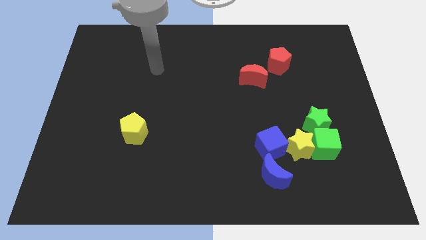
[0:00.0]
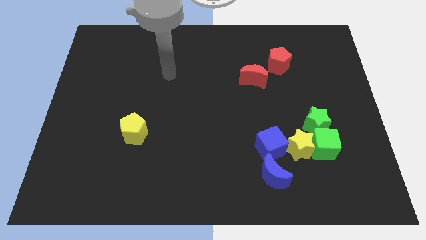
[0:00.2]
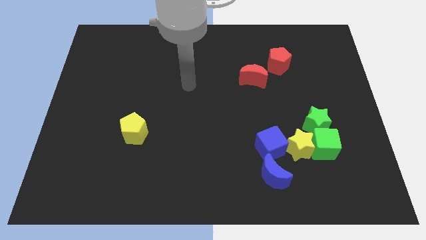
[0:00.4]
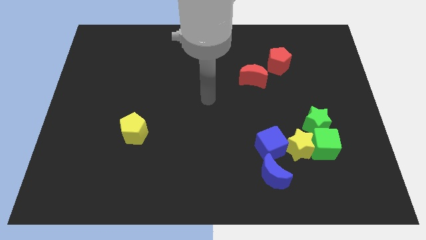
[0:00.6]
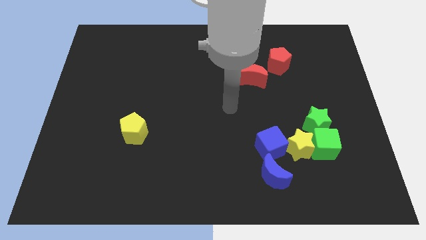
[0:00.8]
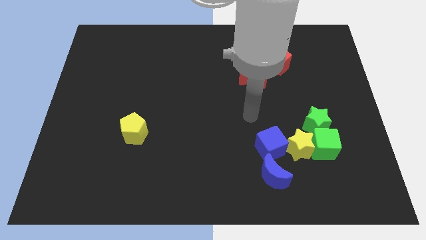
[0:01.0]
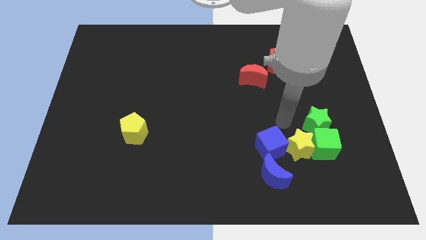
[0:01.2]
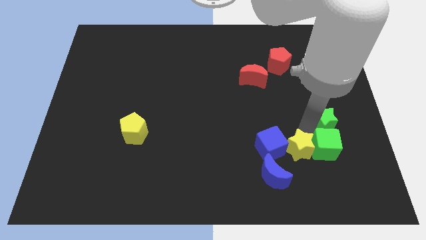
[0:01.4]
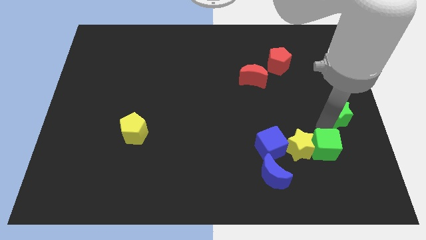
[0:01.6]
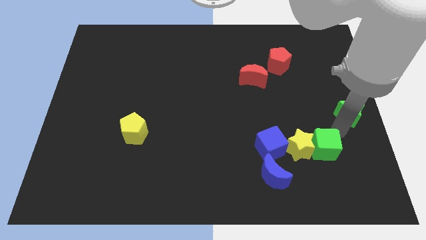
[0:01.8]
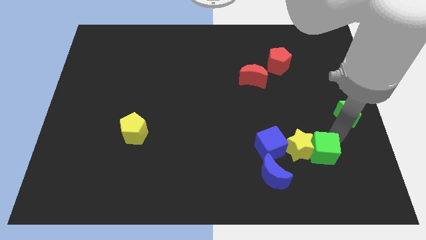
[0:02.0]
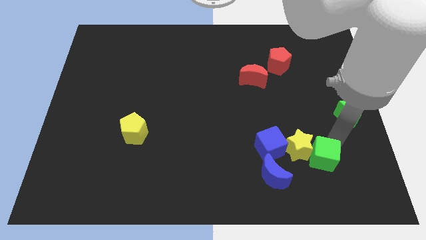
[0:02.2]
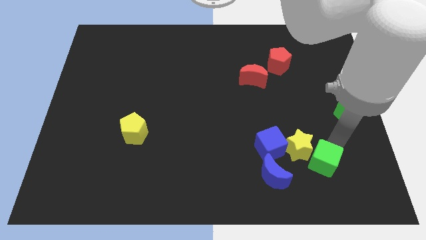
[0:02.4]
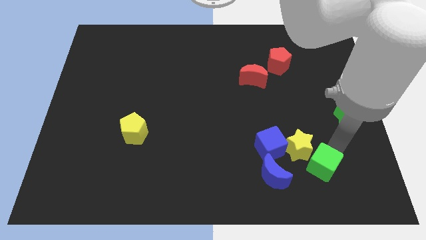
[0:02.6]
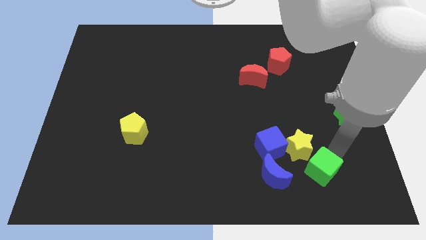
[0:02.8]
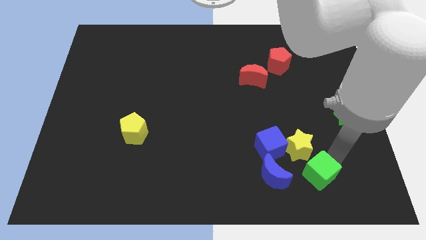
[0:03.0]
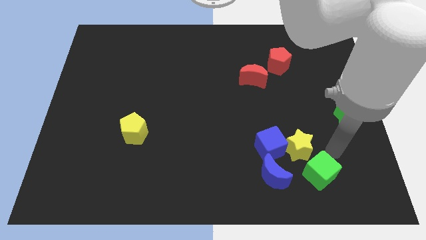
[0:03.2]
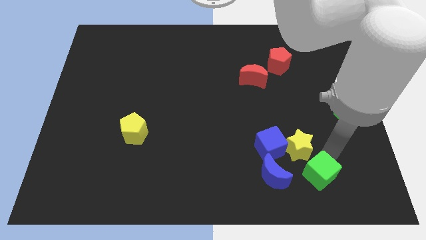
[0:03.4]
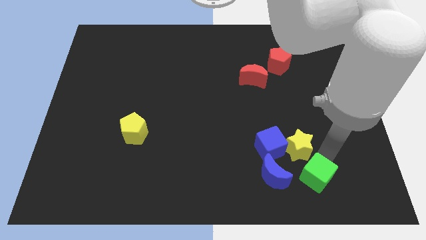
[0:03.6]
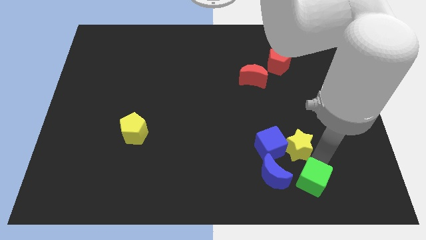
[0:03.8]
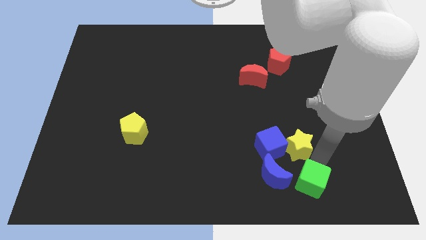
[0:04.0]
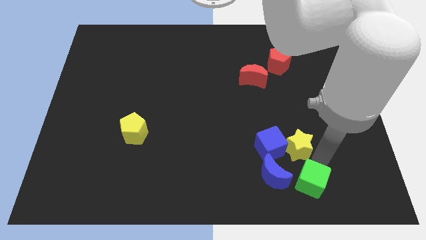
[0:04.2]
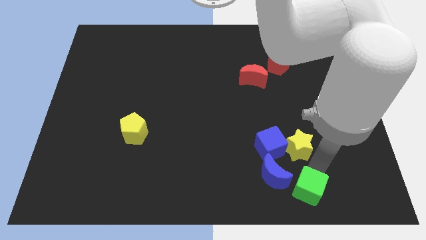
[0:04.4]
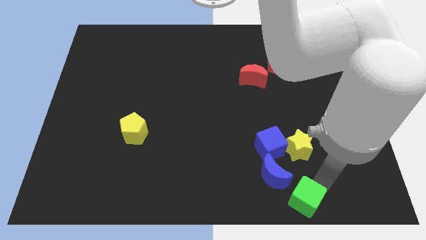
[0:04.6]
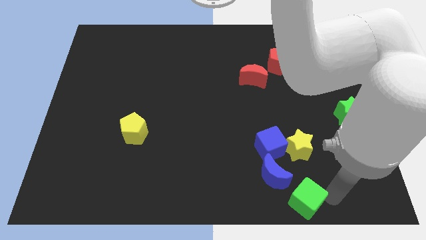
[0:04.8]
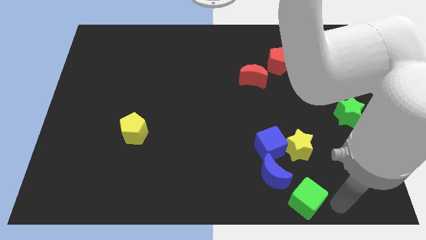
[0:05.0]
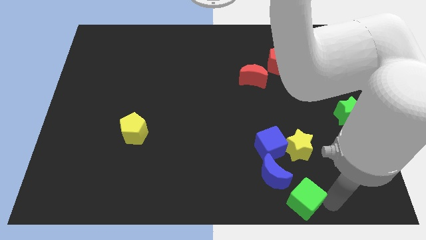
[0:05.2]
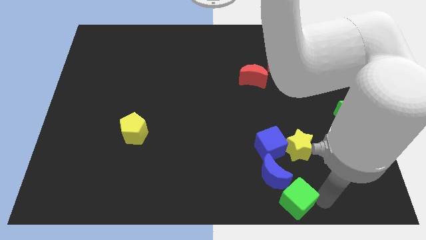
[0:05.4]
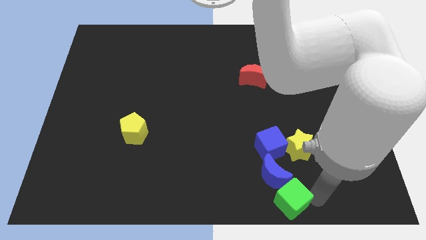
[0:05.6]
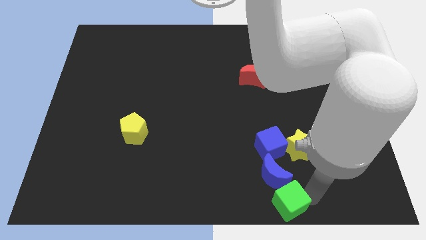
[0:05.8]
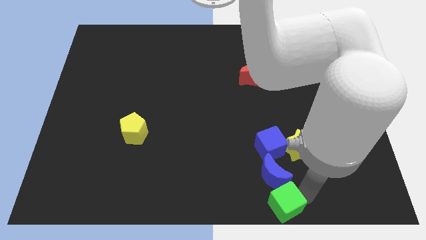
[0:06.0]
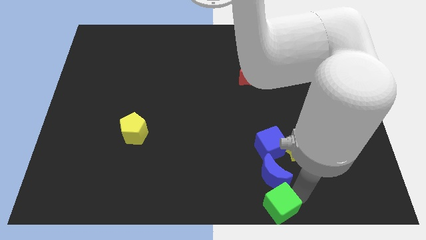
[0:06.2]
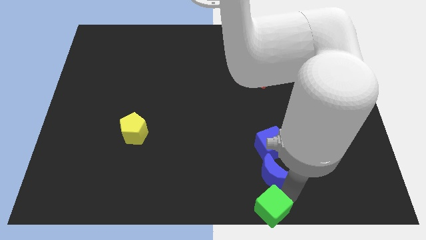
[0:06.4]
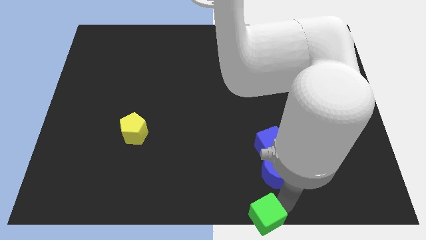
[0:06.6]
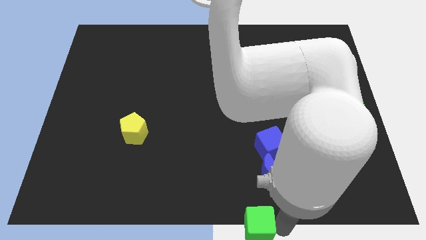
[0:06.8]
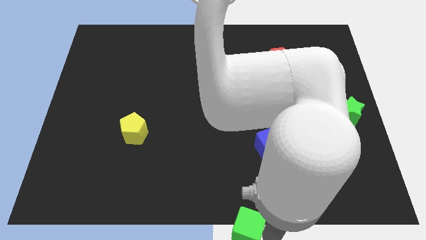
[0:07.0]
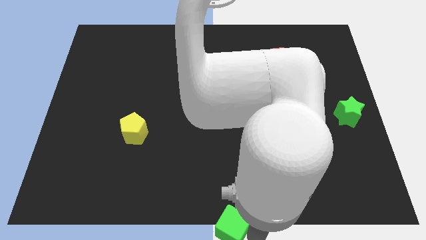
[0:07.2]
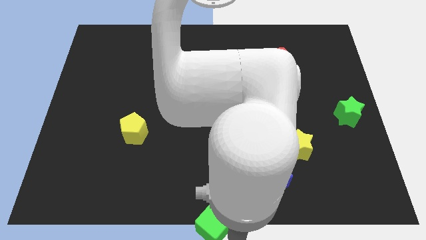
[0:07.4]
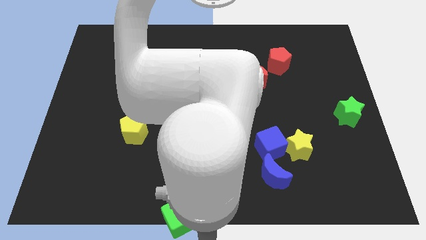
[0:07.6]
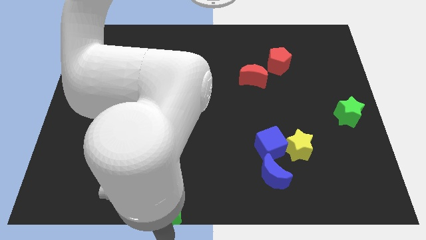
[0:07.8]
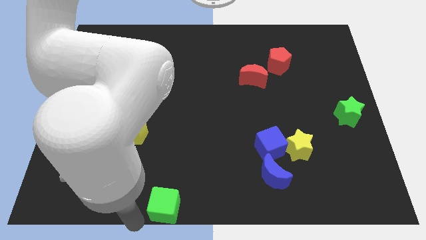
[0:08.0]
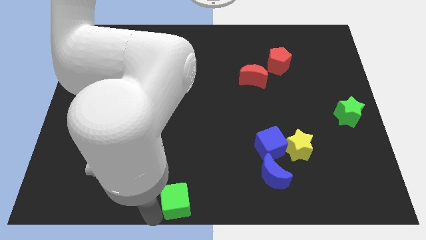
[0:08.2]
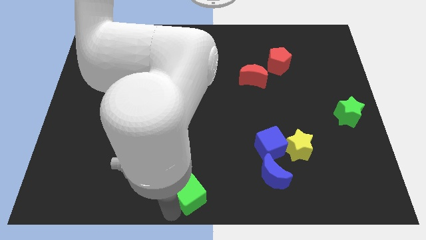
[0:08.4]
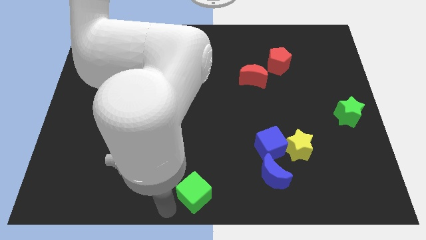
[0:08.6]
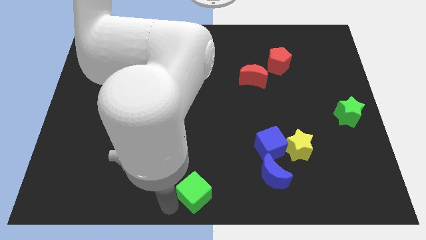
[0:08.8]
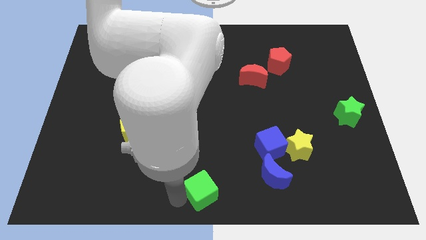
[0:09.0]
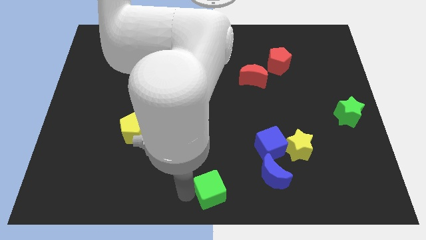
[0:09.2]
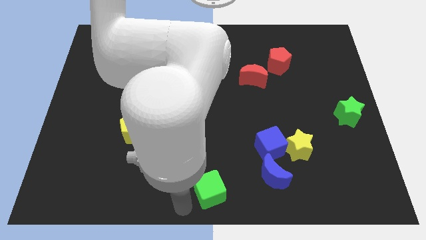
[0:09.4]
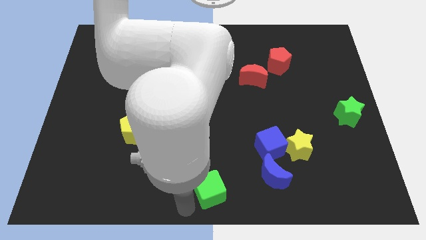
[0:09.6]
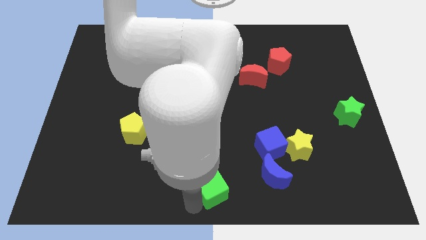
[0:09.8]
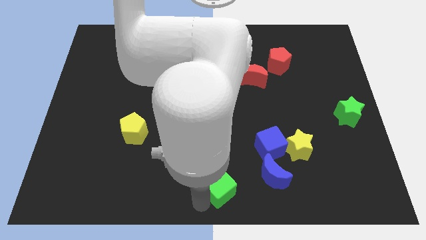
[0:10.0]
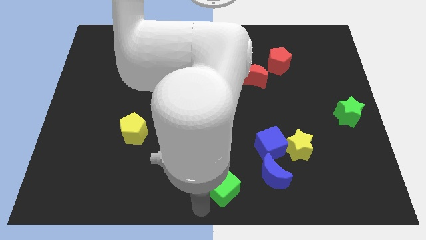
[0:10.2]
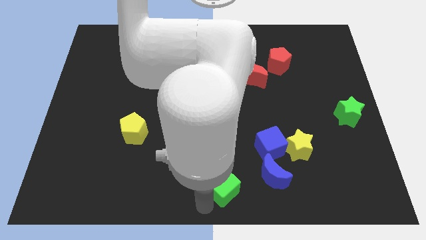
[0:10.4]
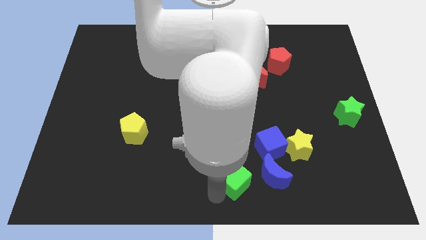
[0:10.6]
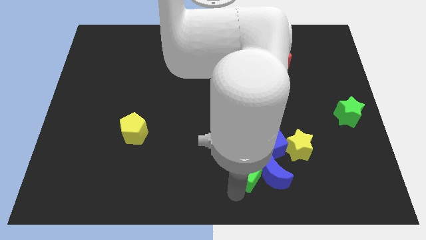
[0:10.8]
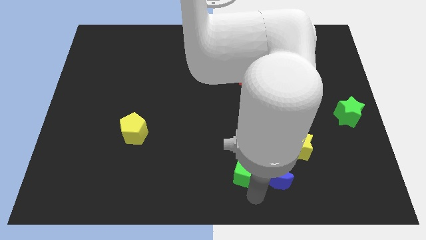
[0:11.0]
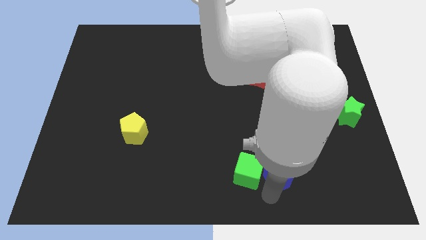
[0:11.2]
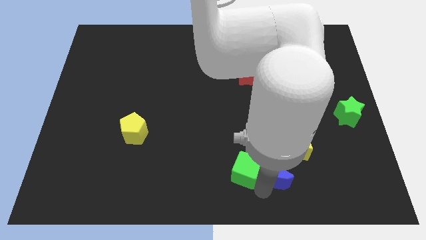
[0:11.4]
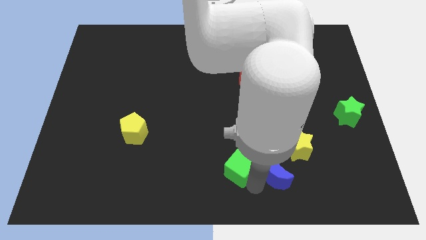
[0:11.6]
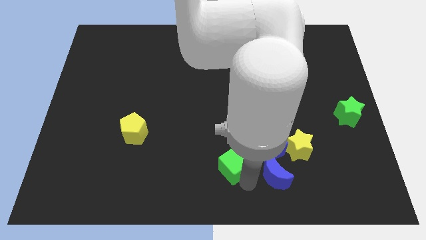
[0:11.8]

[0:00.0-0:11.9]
slide the green cube left of the blue cube

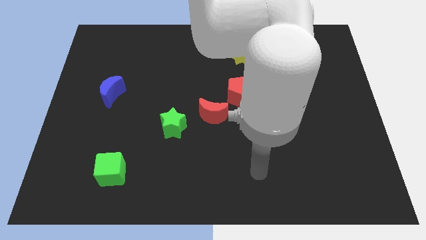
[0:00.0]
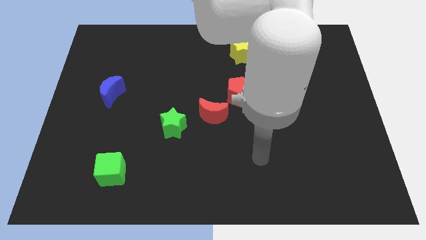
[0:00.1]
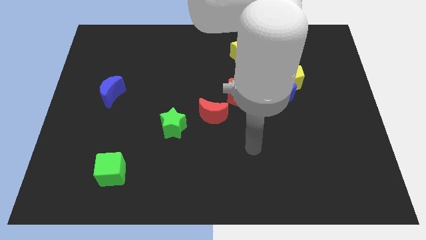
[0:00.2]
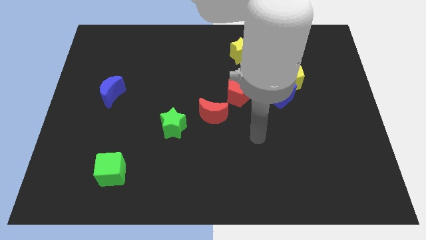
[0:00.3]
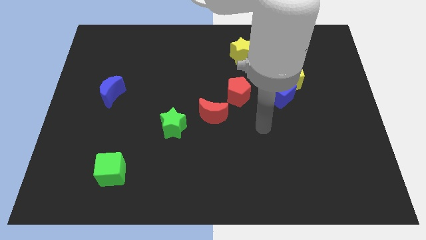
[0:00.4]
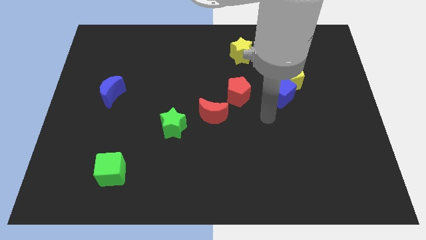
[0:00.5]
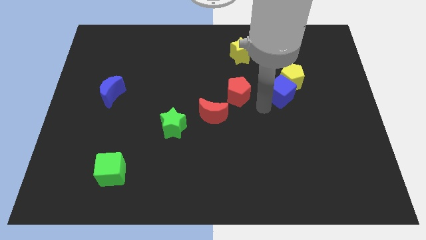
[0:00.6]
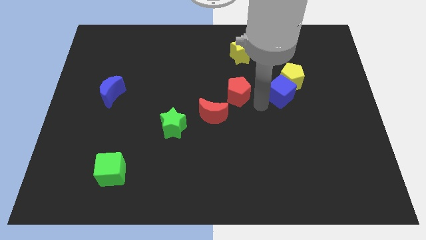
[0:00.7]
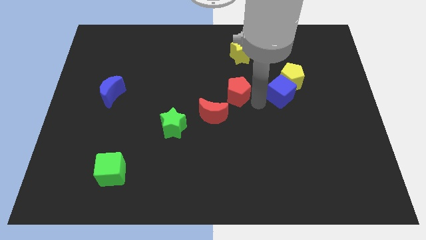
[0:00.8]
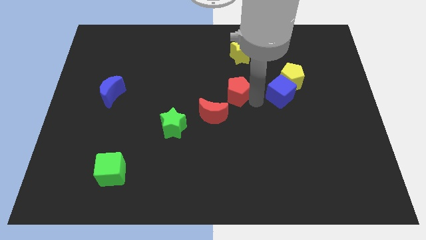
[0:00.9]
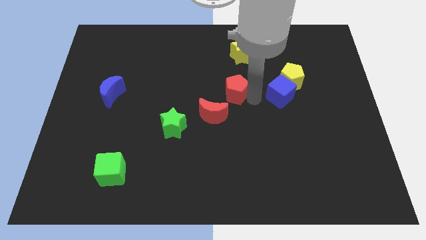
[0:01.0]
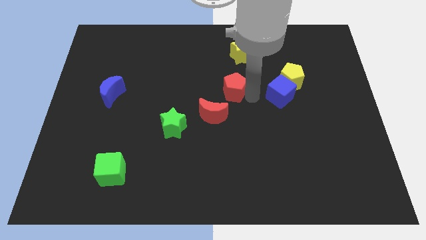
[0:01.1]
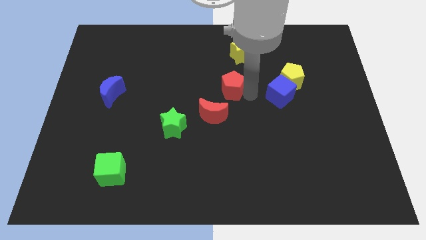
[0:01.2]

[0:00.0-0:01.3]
push the red pentagon above the red moon
